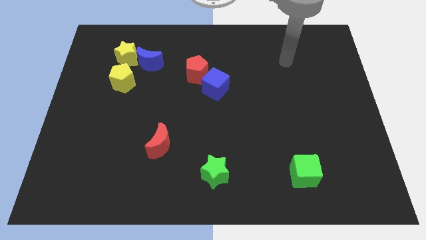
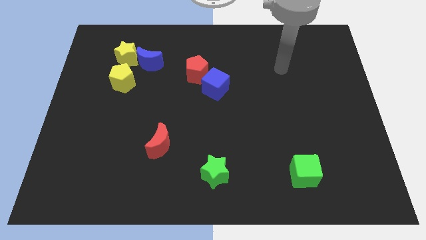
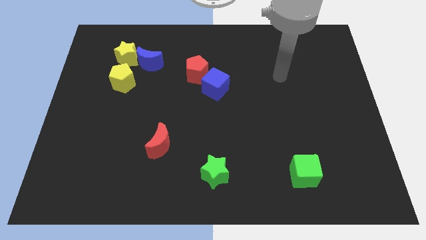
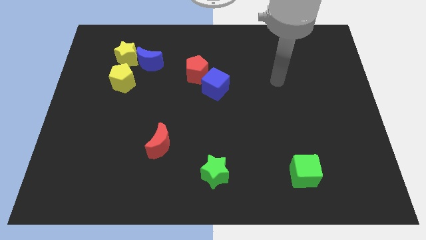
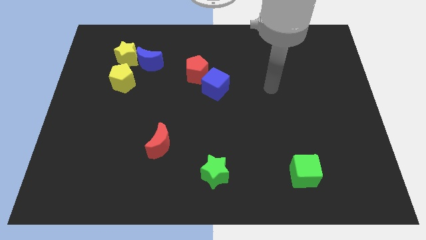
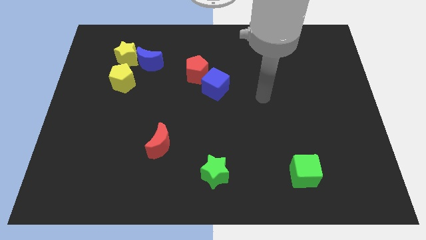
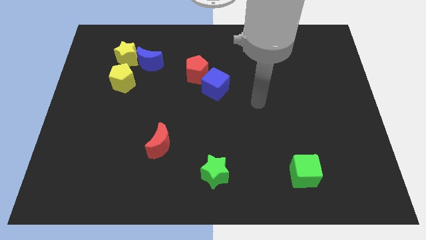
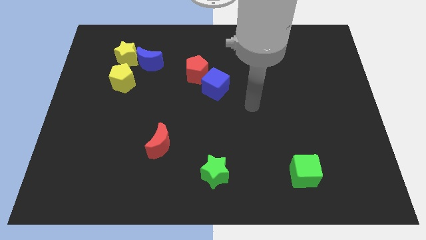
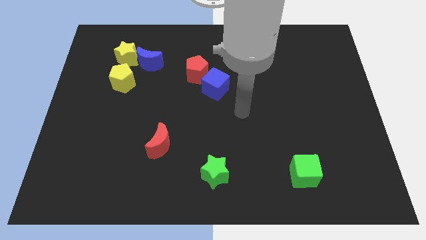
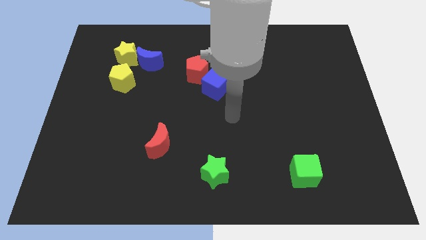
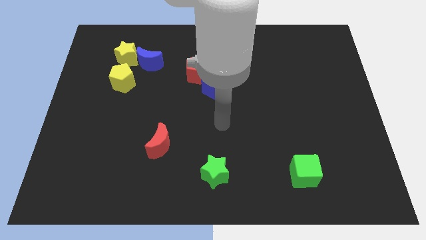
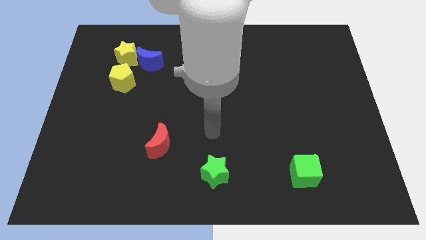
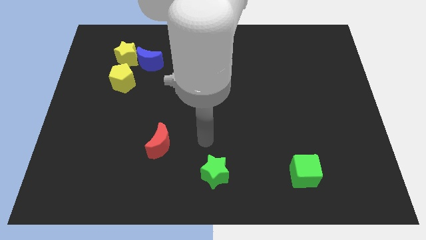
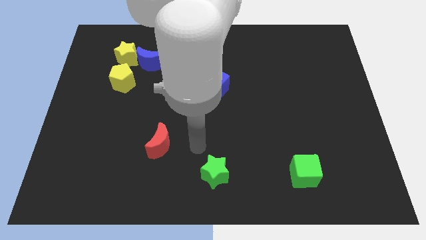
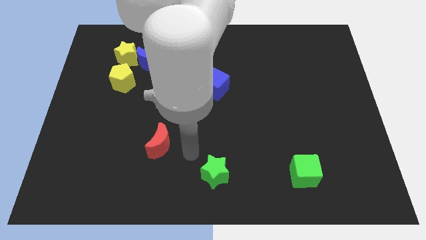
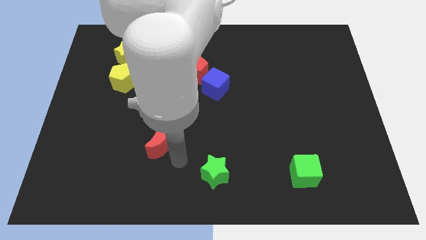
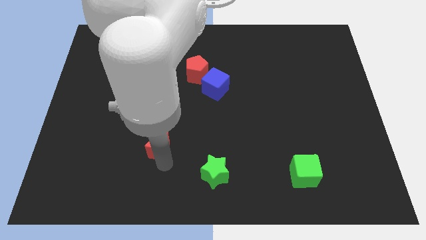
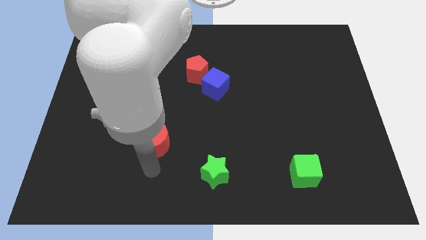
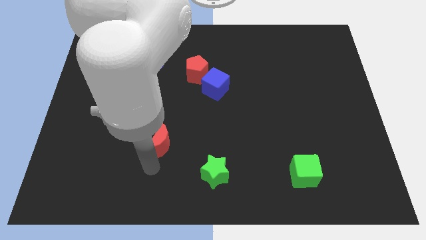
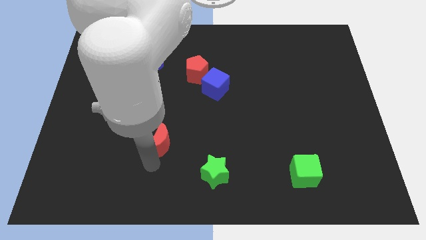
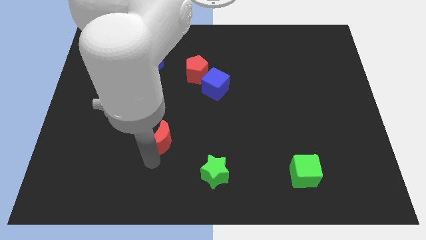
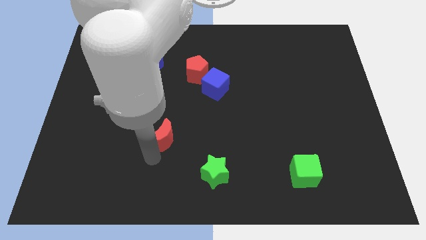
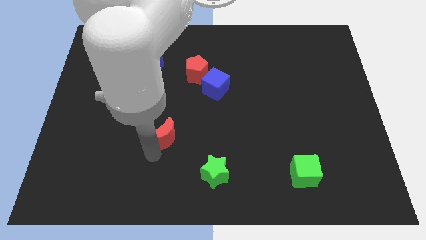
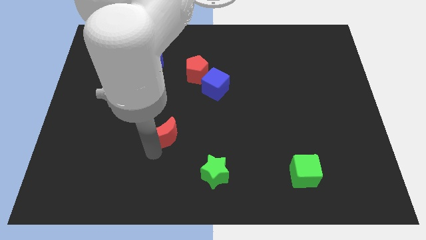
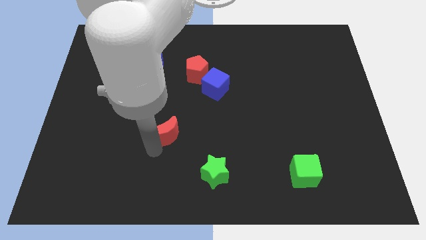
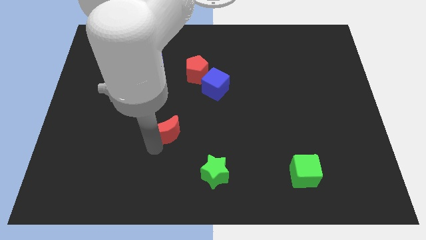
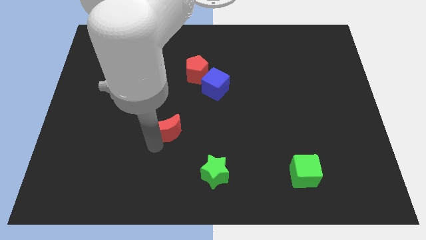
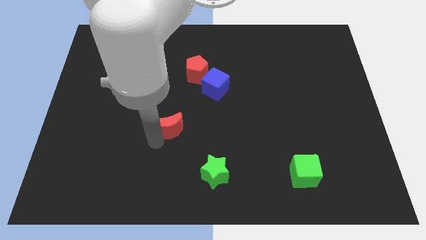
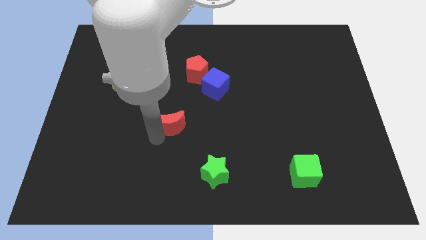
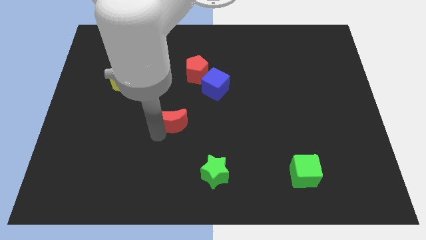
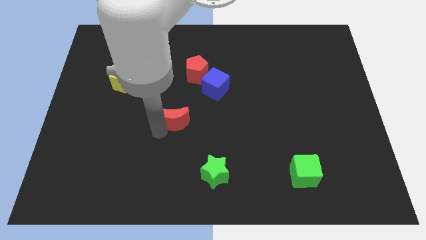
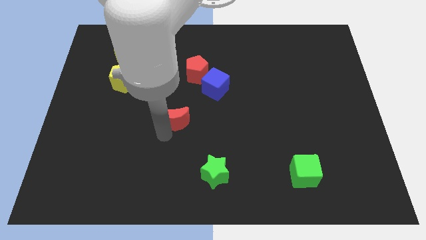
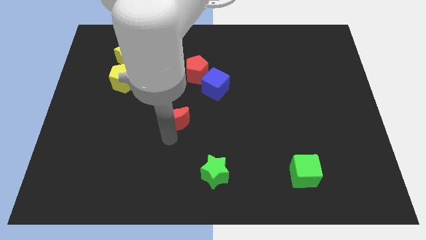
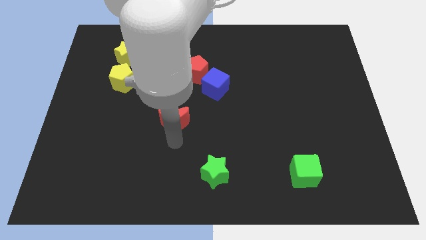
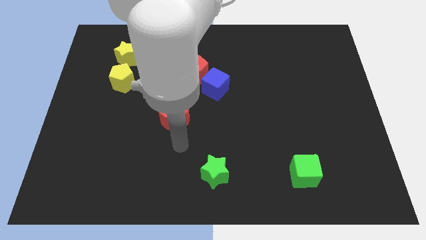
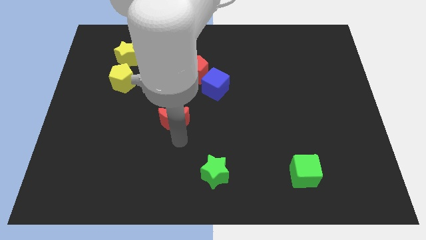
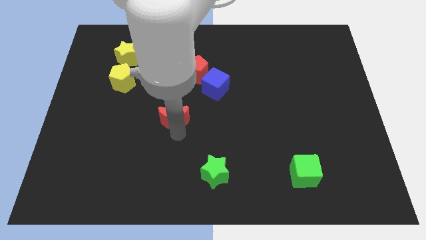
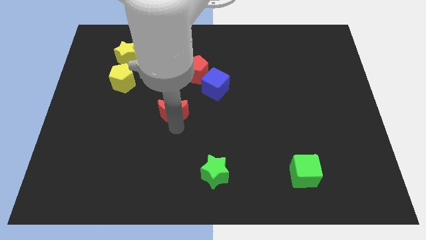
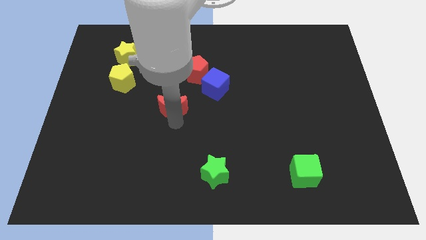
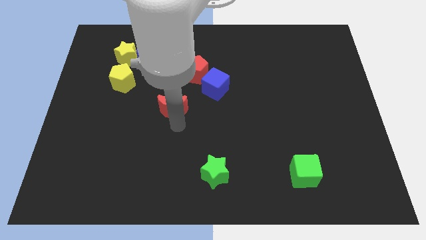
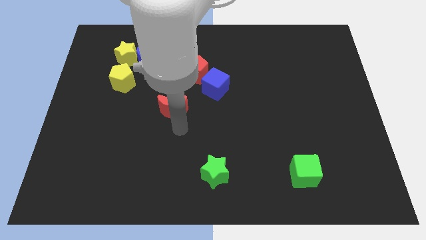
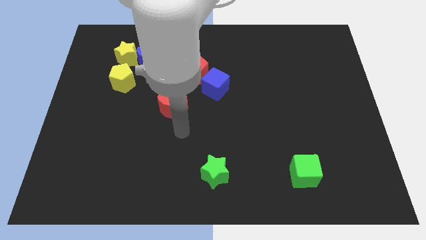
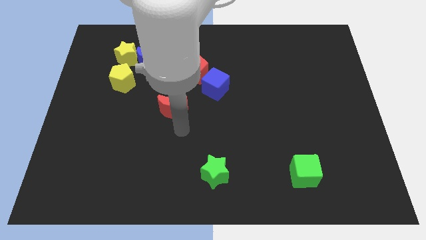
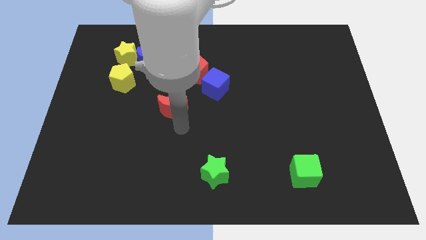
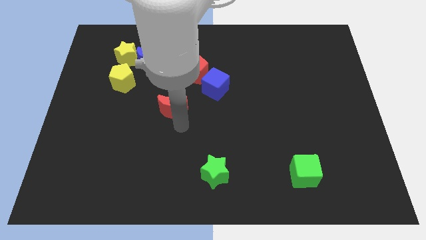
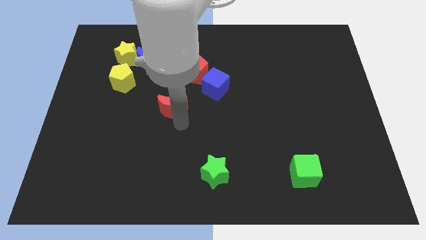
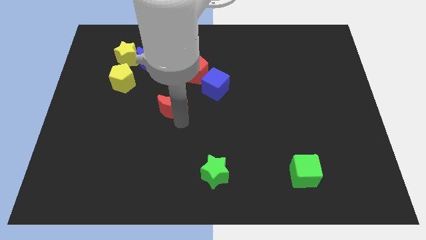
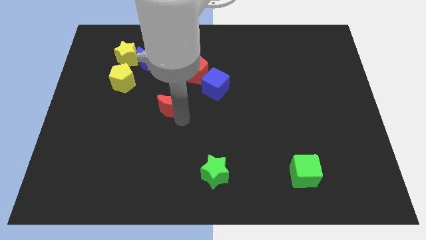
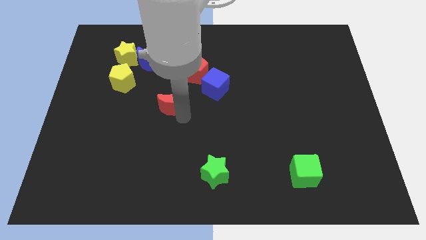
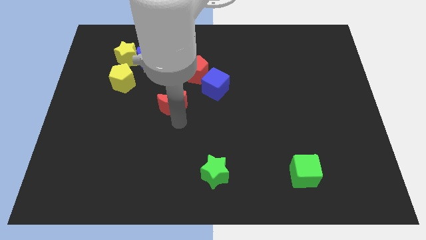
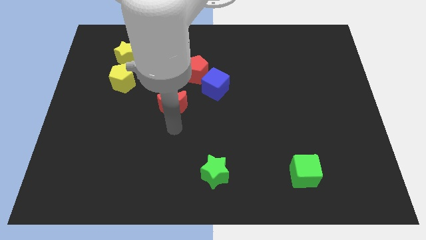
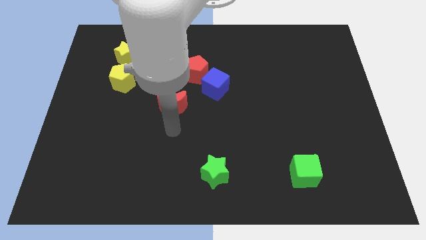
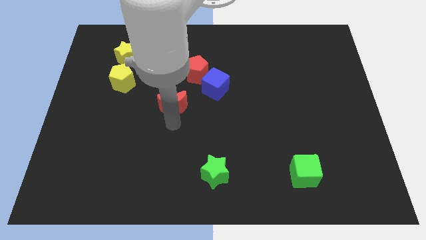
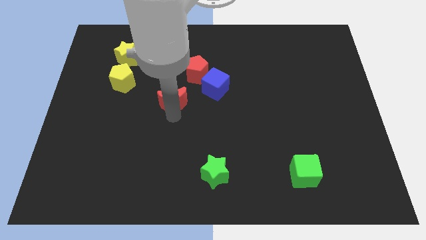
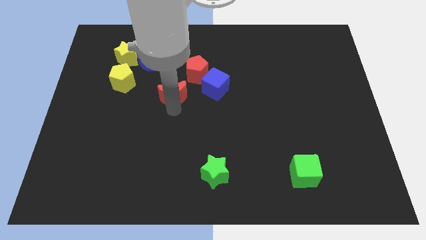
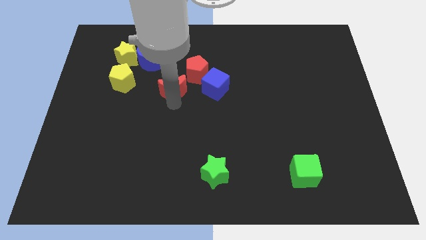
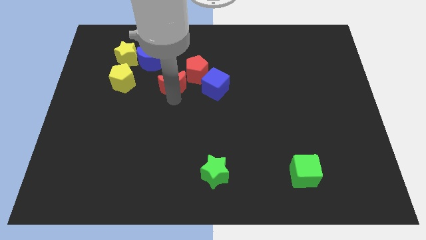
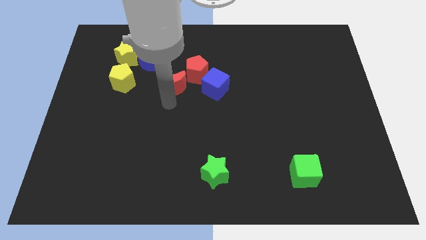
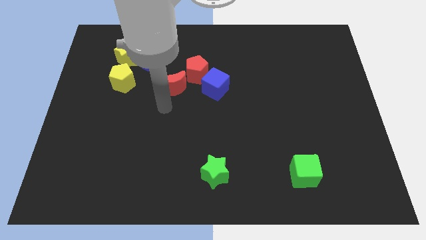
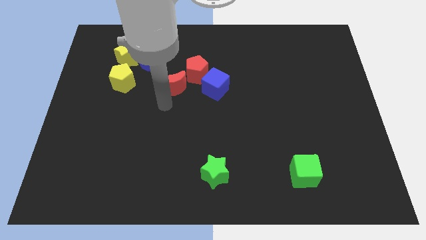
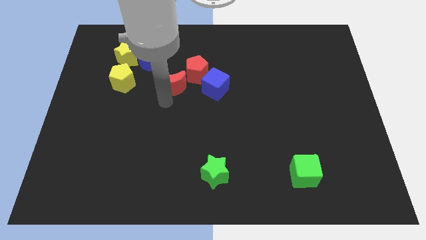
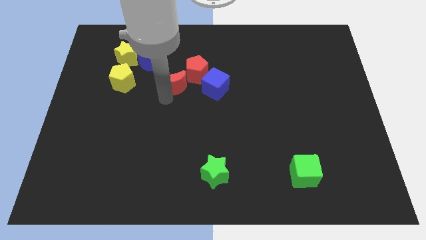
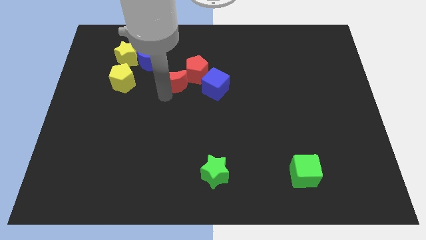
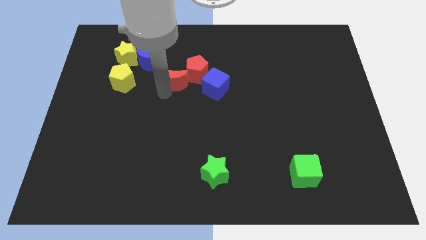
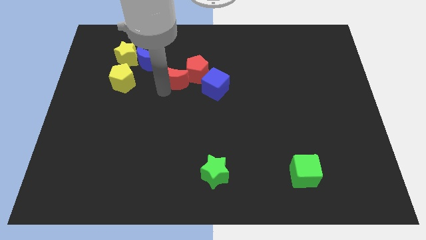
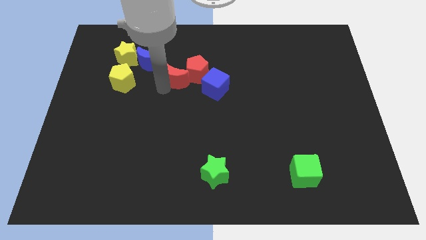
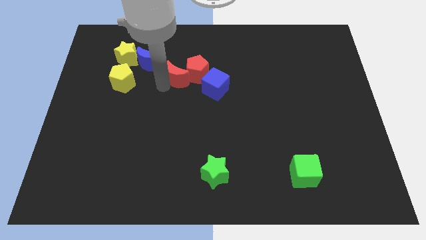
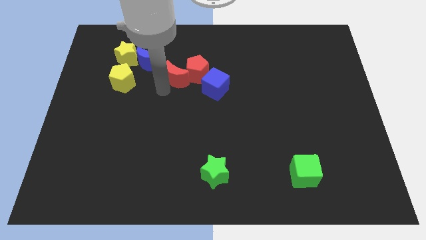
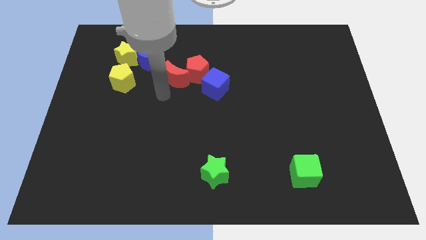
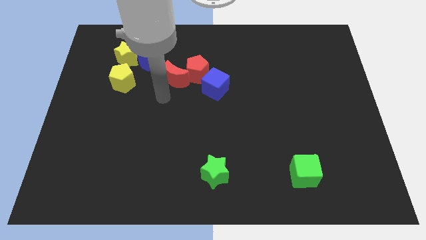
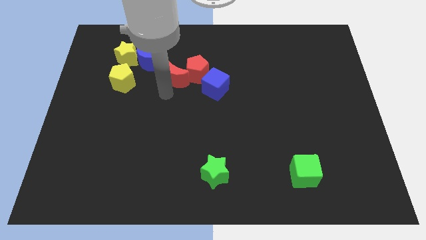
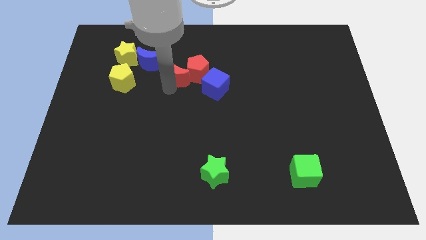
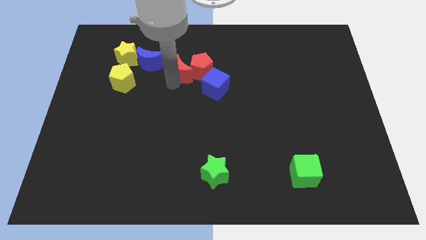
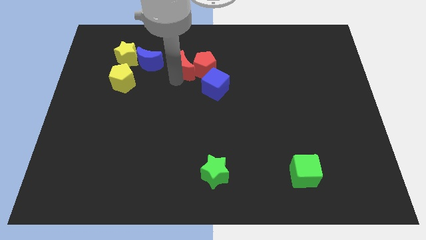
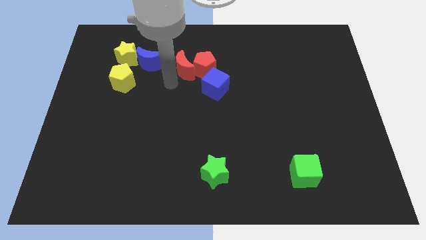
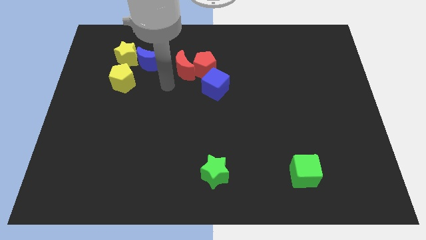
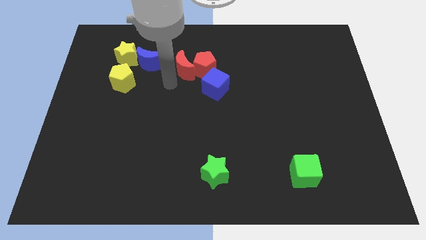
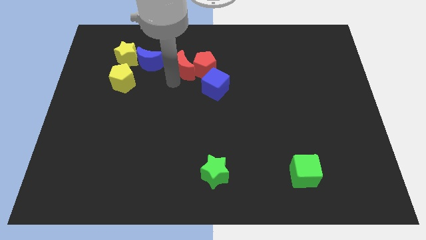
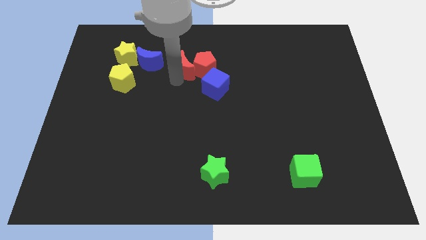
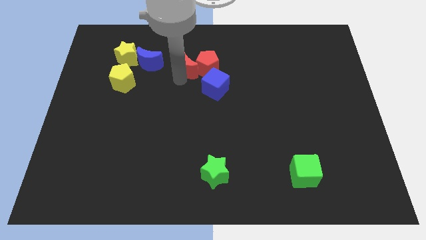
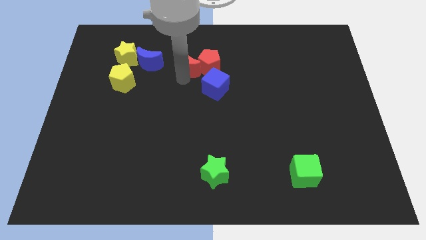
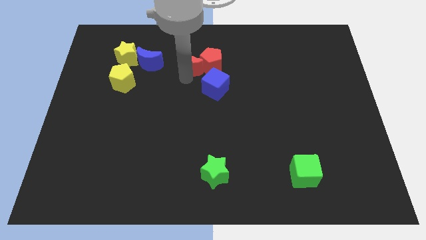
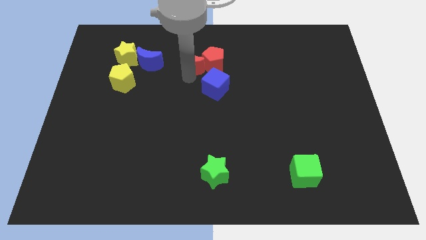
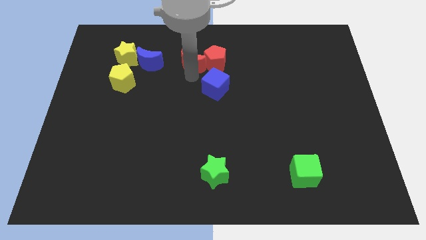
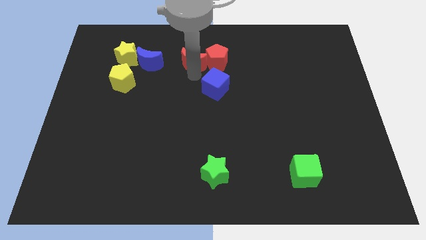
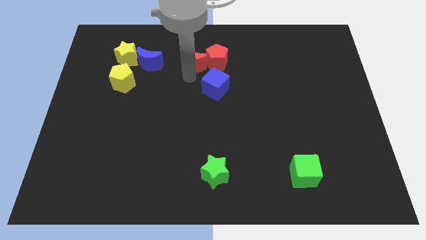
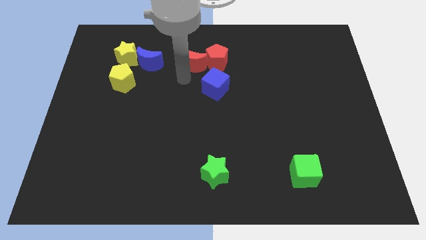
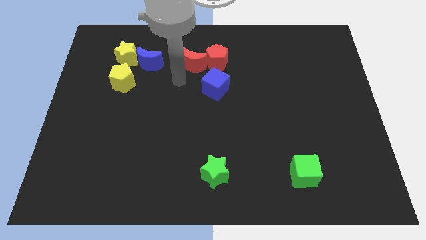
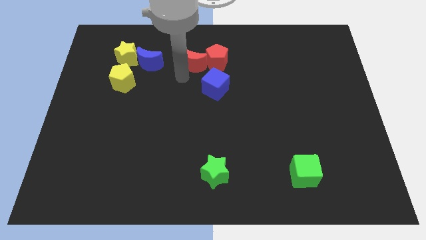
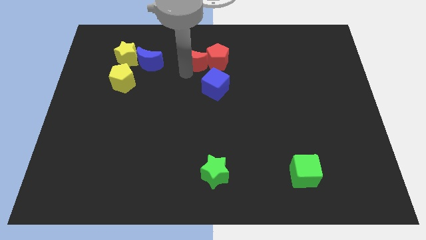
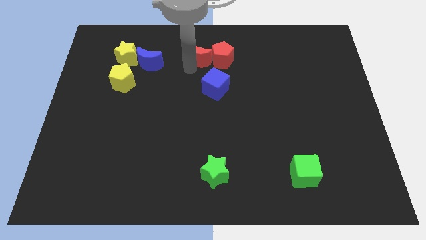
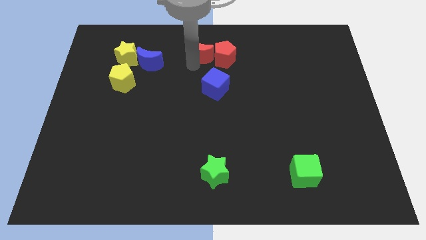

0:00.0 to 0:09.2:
put the red moon to the top
